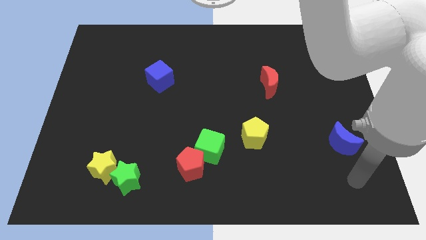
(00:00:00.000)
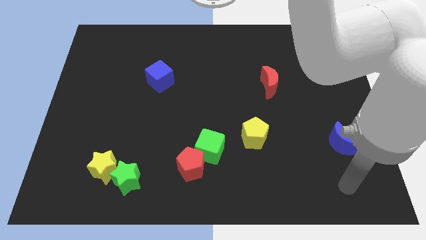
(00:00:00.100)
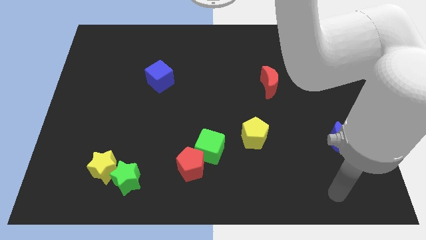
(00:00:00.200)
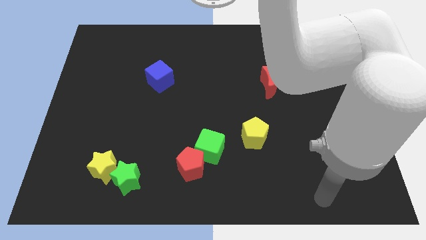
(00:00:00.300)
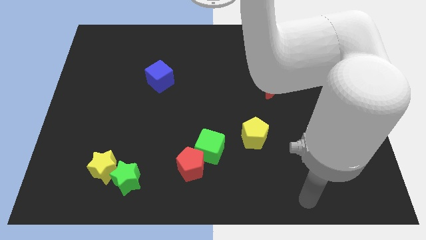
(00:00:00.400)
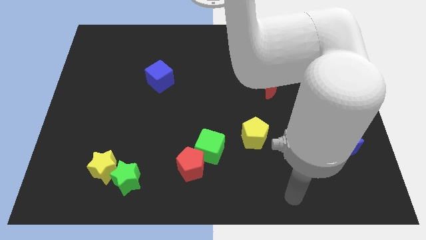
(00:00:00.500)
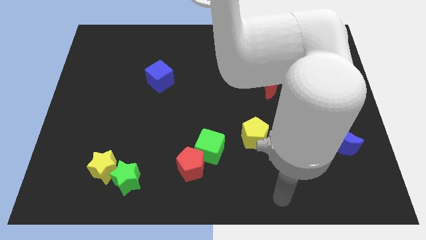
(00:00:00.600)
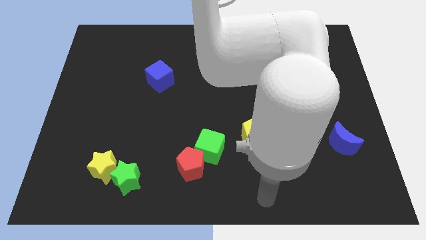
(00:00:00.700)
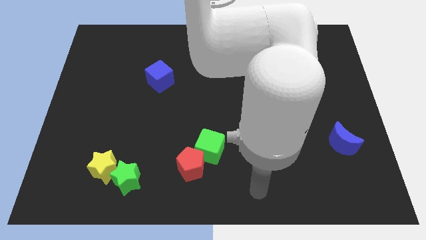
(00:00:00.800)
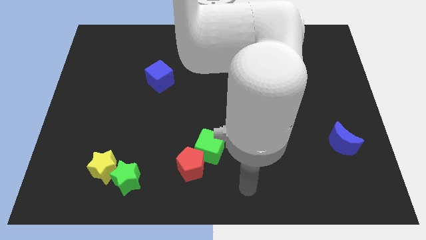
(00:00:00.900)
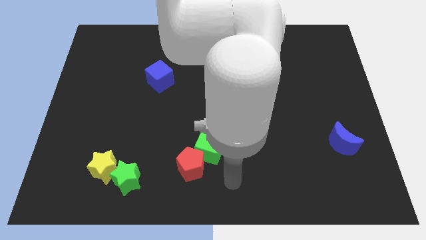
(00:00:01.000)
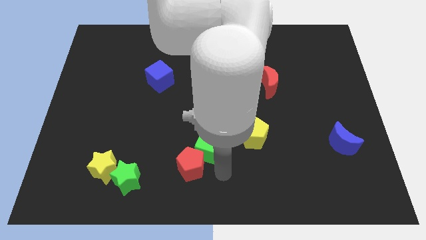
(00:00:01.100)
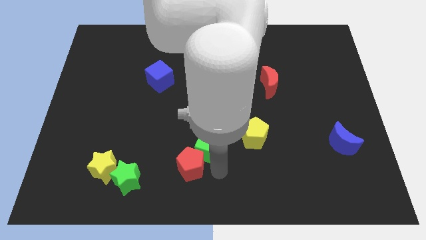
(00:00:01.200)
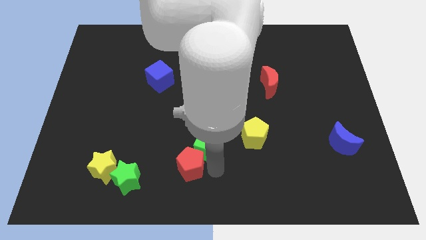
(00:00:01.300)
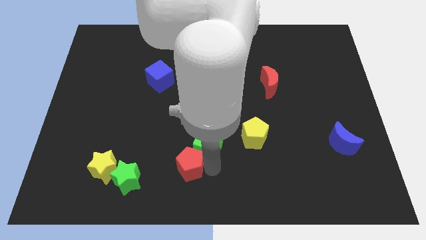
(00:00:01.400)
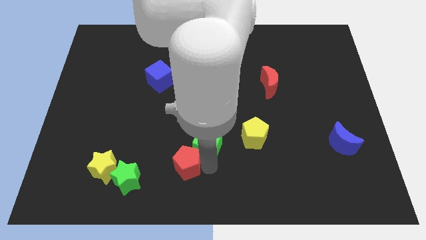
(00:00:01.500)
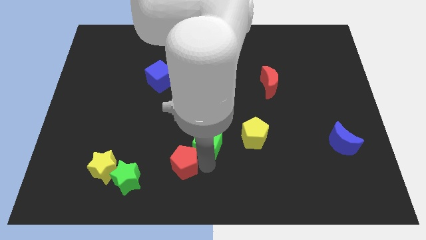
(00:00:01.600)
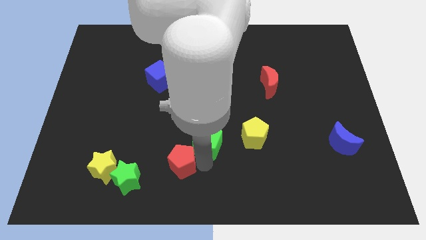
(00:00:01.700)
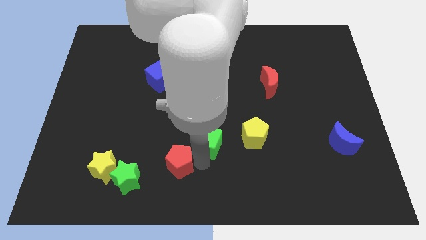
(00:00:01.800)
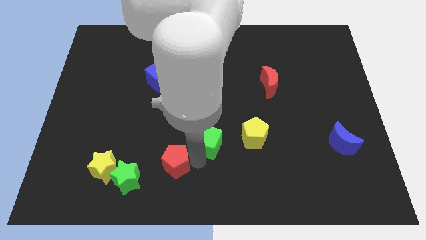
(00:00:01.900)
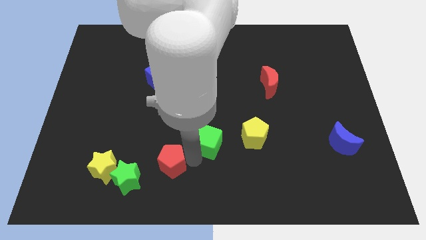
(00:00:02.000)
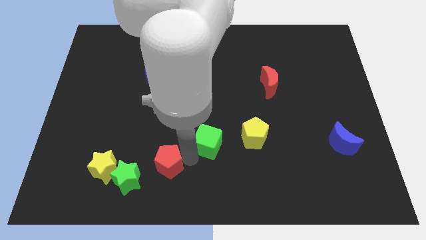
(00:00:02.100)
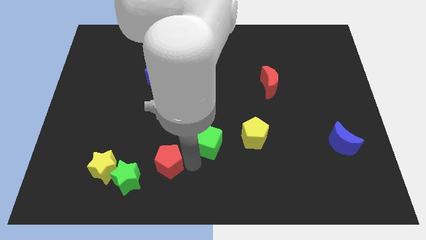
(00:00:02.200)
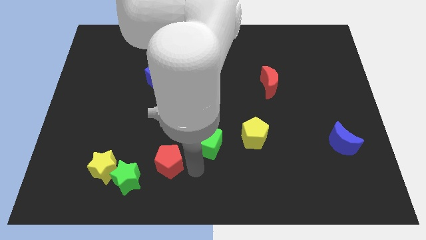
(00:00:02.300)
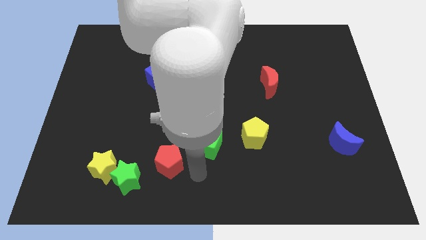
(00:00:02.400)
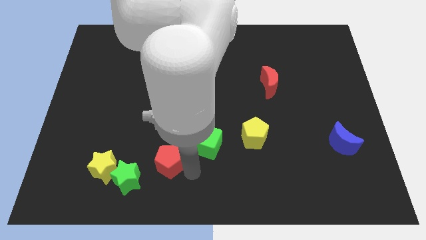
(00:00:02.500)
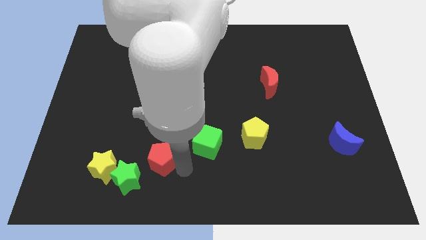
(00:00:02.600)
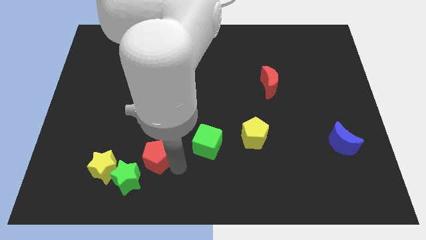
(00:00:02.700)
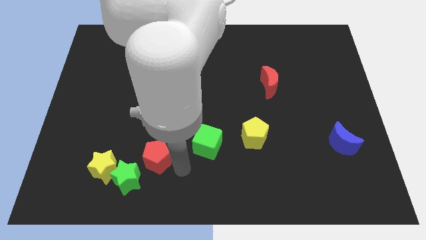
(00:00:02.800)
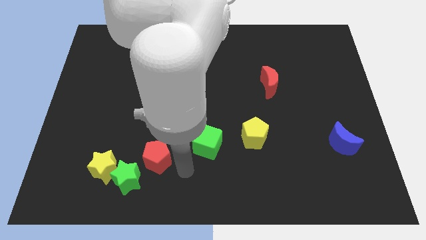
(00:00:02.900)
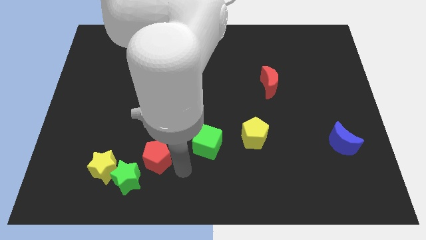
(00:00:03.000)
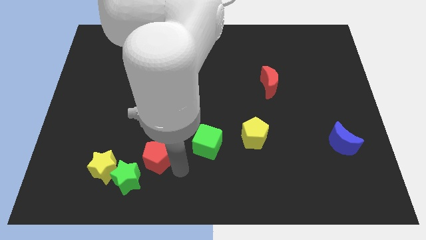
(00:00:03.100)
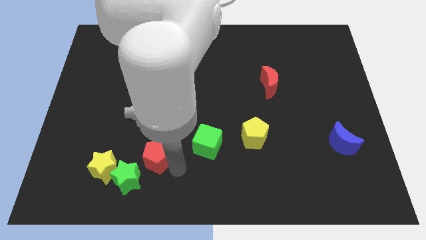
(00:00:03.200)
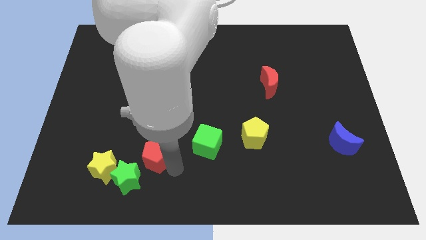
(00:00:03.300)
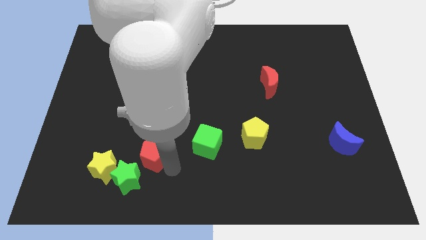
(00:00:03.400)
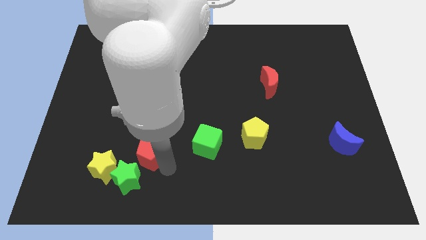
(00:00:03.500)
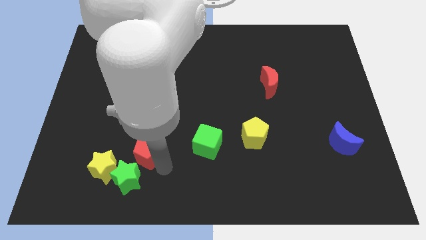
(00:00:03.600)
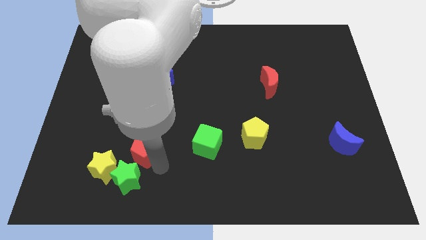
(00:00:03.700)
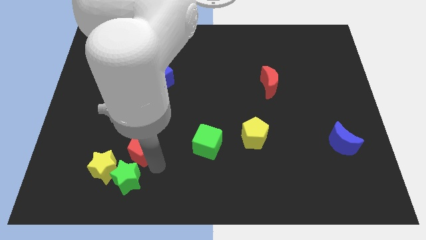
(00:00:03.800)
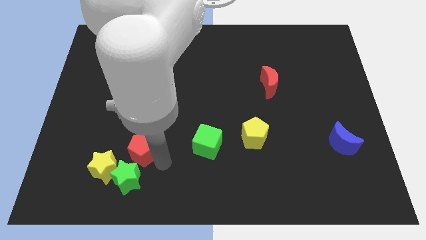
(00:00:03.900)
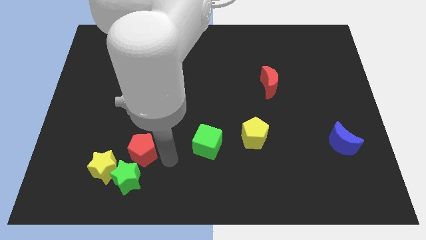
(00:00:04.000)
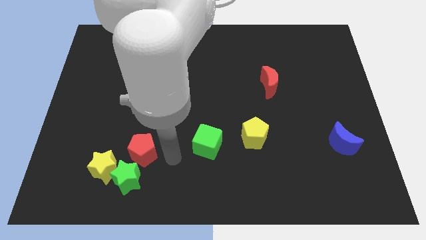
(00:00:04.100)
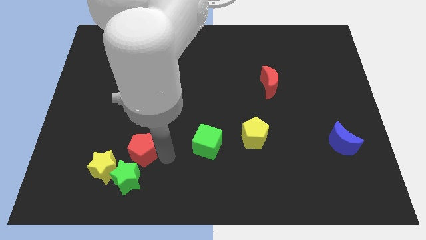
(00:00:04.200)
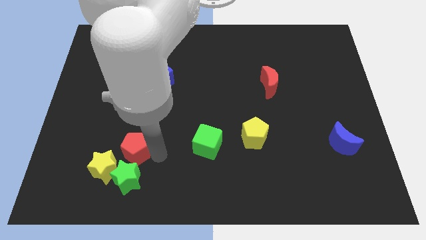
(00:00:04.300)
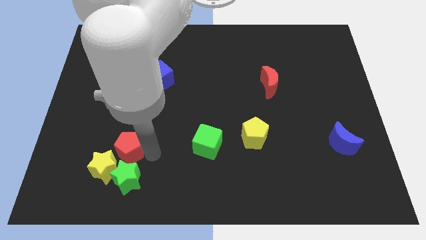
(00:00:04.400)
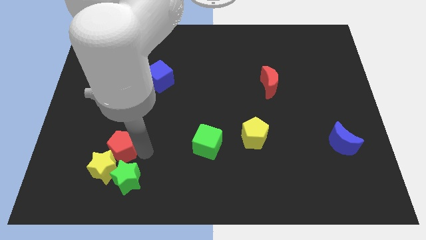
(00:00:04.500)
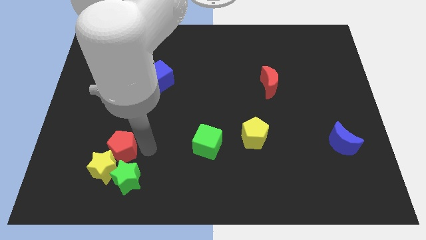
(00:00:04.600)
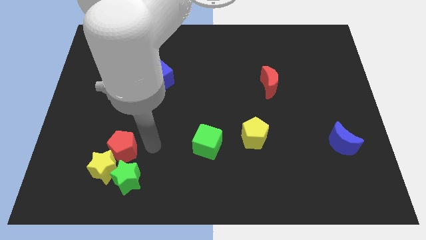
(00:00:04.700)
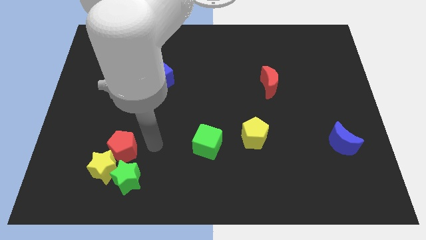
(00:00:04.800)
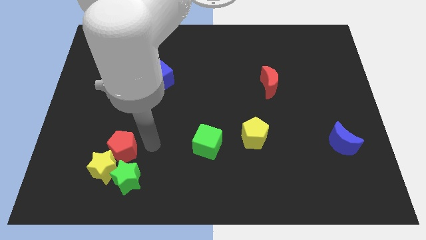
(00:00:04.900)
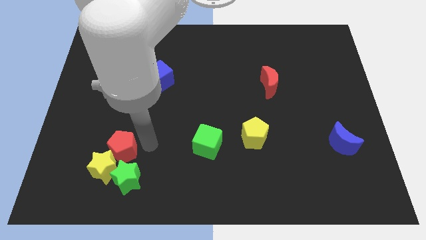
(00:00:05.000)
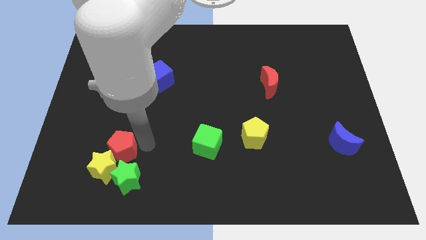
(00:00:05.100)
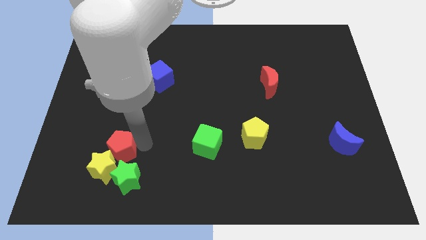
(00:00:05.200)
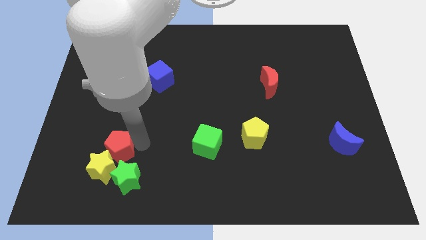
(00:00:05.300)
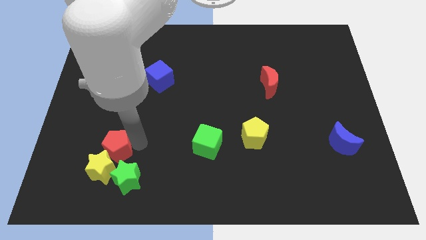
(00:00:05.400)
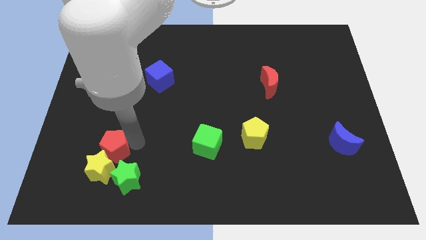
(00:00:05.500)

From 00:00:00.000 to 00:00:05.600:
slide the red pentagon to the top left side of the yellow star

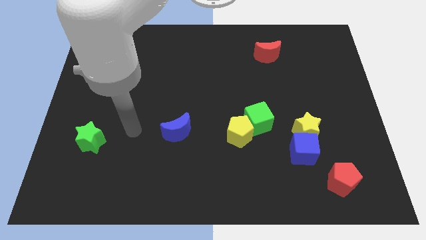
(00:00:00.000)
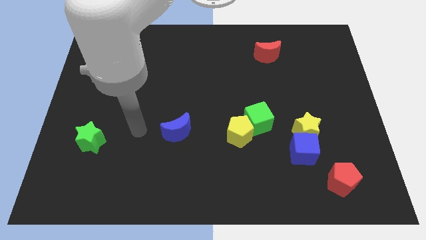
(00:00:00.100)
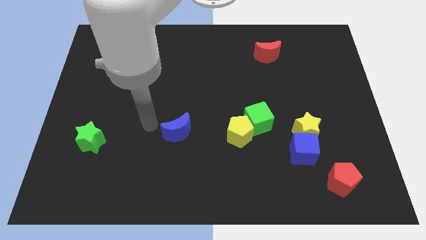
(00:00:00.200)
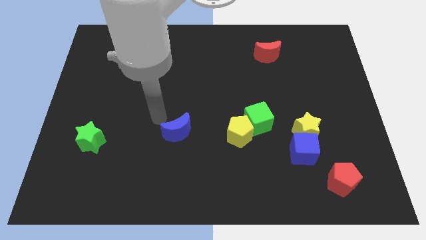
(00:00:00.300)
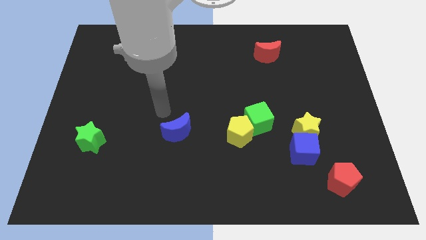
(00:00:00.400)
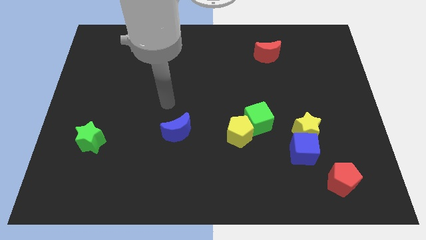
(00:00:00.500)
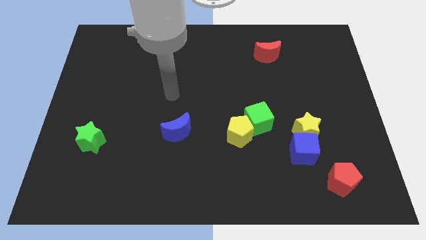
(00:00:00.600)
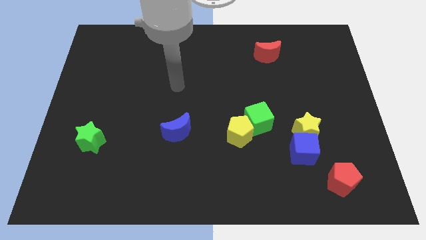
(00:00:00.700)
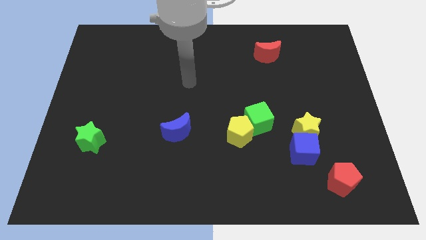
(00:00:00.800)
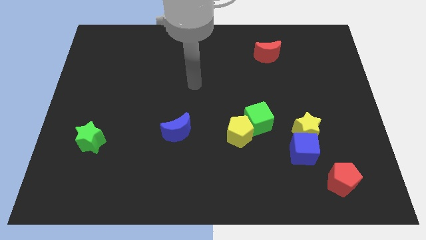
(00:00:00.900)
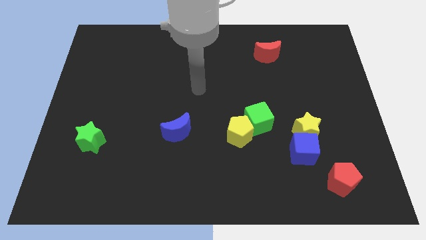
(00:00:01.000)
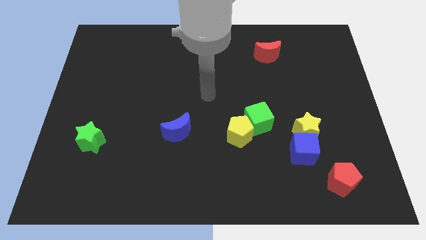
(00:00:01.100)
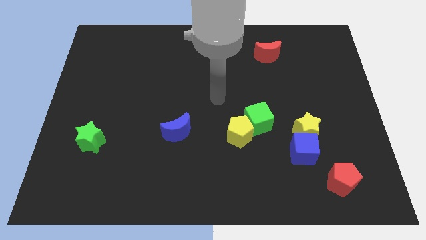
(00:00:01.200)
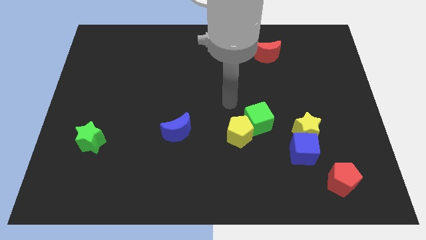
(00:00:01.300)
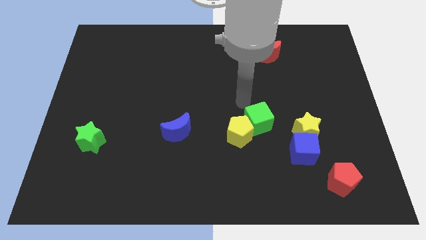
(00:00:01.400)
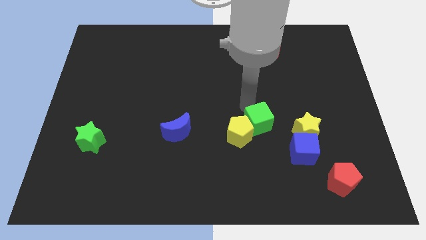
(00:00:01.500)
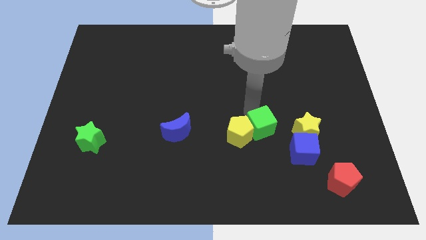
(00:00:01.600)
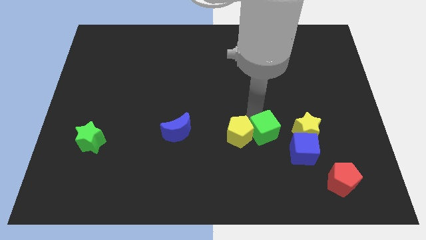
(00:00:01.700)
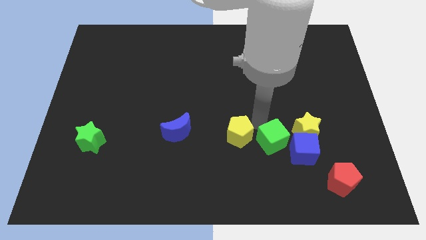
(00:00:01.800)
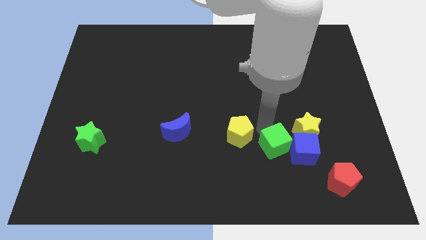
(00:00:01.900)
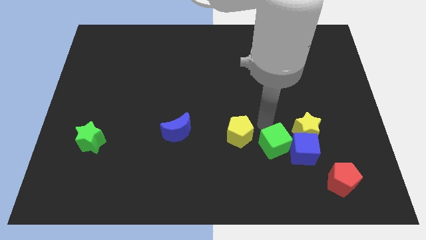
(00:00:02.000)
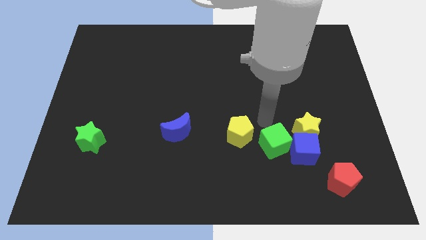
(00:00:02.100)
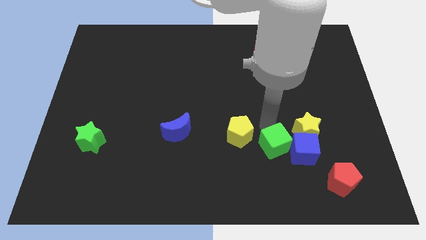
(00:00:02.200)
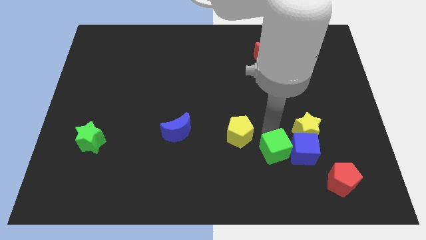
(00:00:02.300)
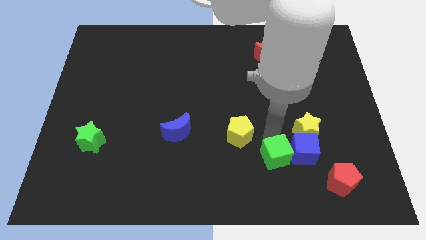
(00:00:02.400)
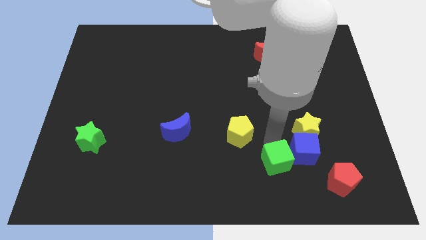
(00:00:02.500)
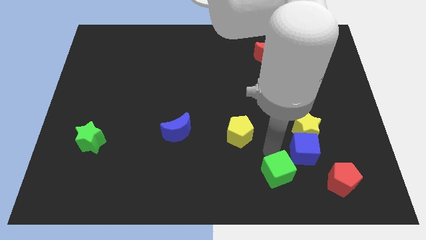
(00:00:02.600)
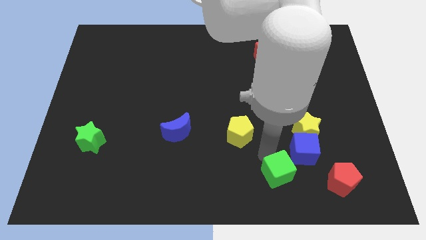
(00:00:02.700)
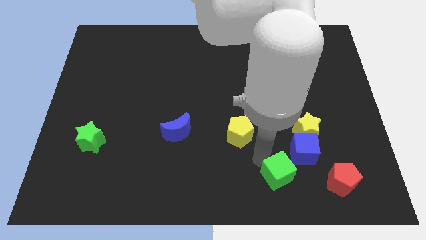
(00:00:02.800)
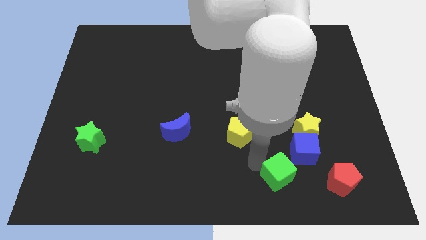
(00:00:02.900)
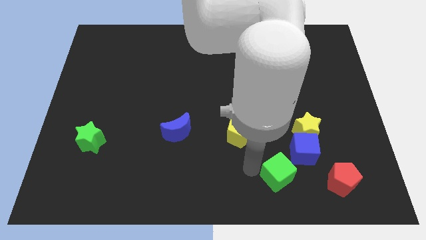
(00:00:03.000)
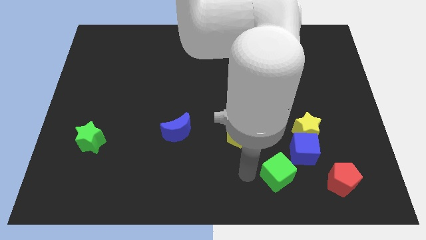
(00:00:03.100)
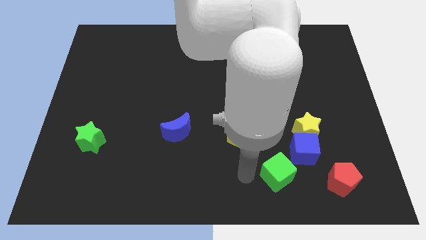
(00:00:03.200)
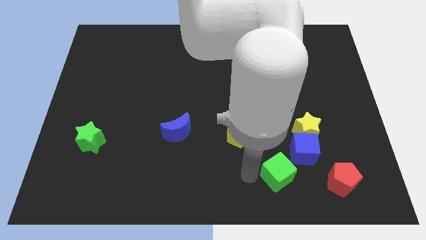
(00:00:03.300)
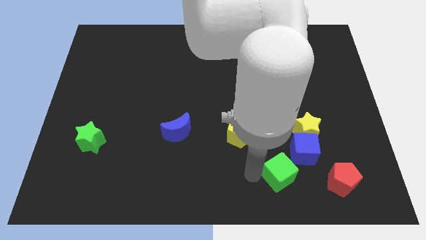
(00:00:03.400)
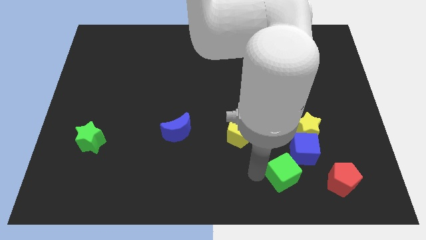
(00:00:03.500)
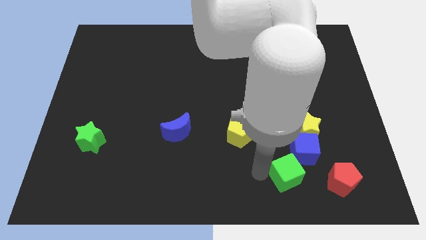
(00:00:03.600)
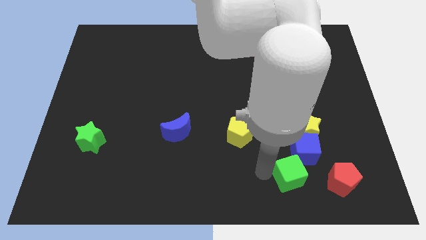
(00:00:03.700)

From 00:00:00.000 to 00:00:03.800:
push the green cube to the bottom of the yellow star
